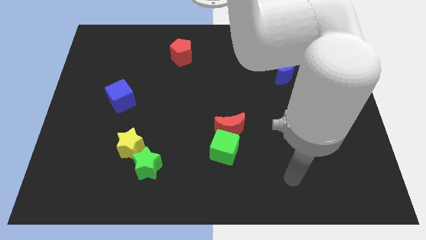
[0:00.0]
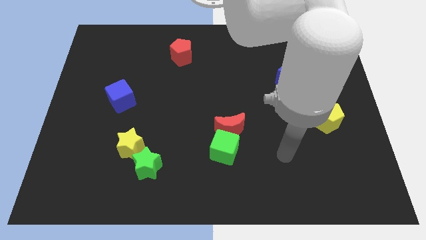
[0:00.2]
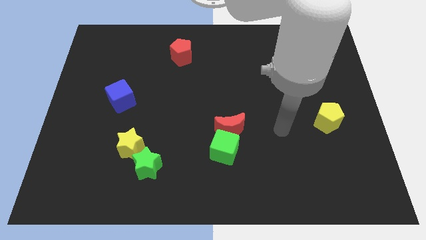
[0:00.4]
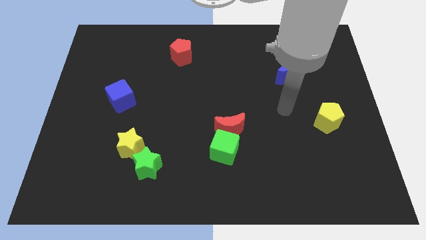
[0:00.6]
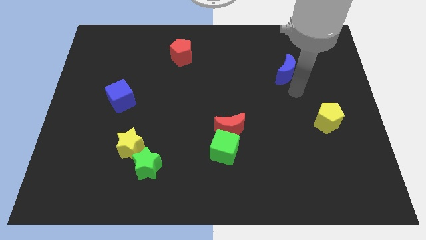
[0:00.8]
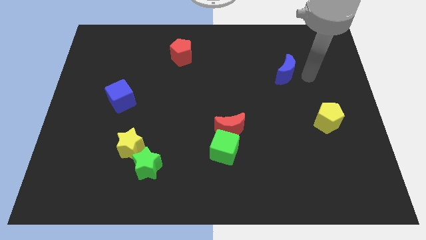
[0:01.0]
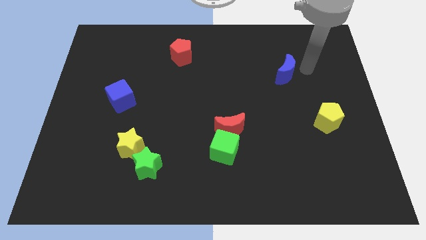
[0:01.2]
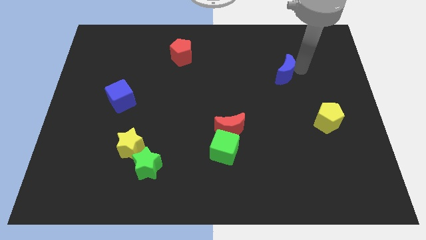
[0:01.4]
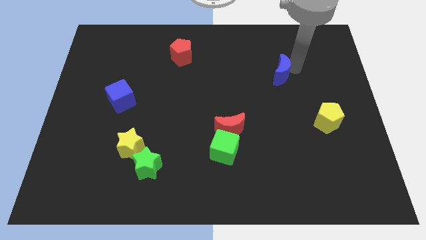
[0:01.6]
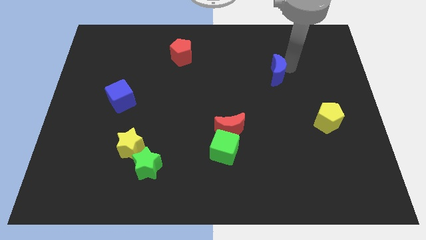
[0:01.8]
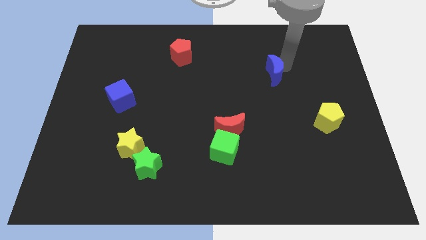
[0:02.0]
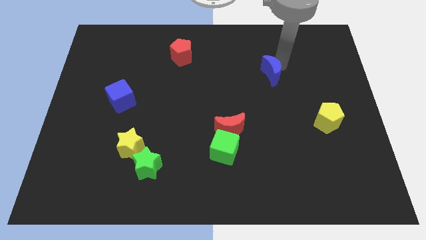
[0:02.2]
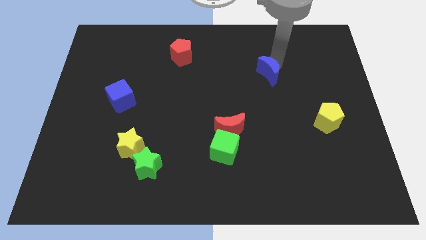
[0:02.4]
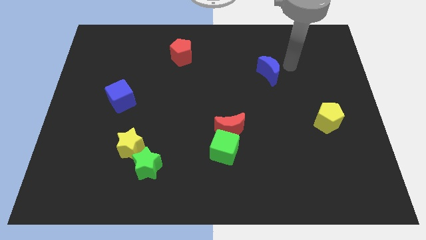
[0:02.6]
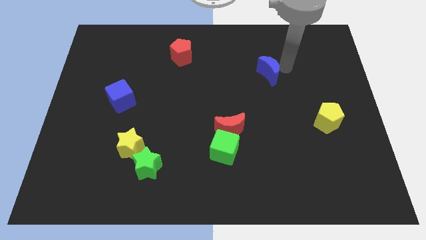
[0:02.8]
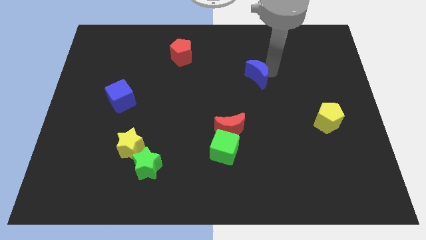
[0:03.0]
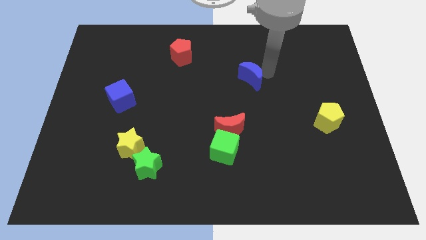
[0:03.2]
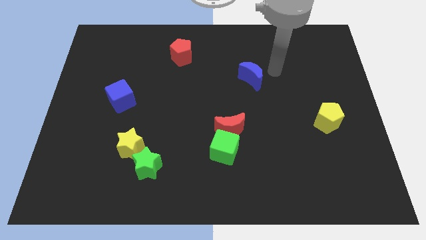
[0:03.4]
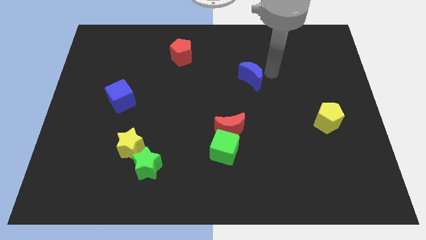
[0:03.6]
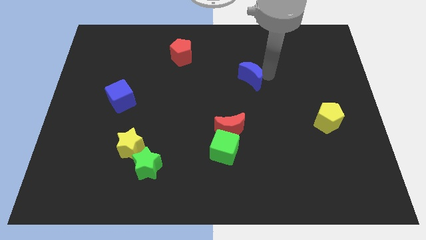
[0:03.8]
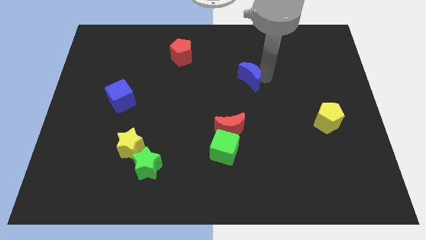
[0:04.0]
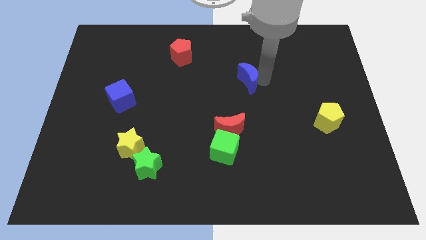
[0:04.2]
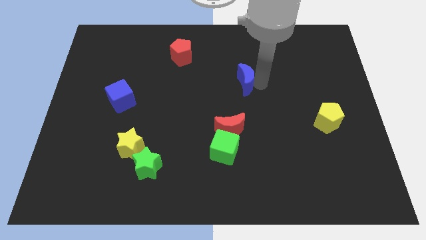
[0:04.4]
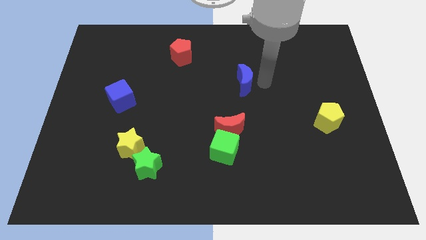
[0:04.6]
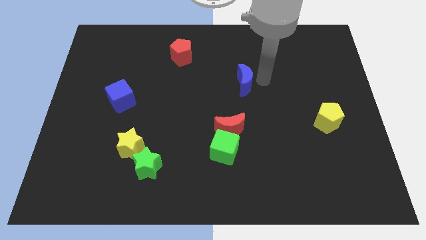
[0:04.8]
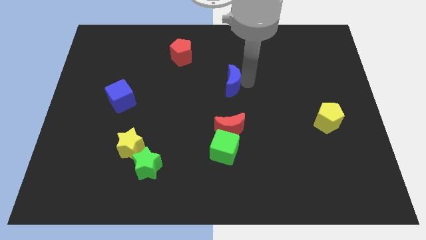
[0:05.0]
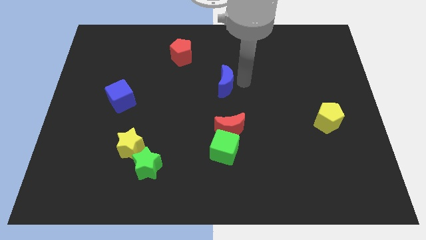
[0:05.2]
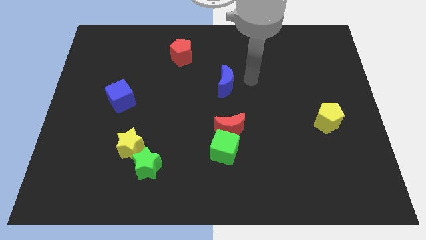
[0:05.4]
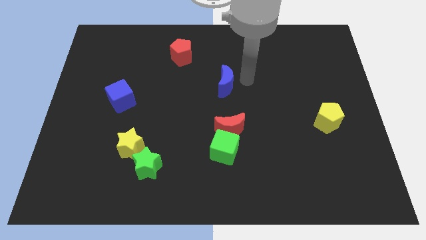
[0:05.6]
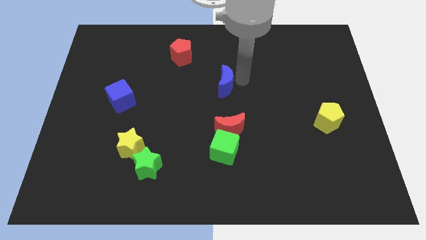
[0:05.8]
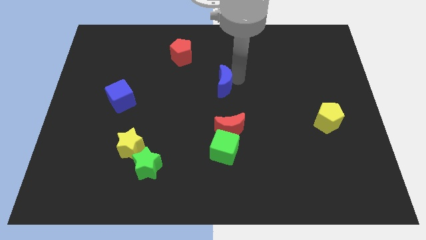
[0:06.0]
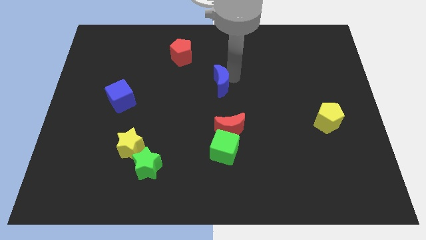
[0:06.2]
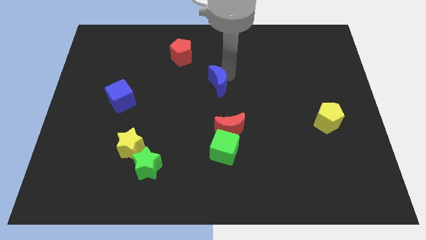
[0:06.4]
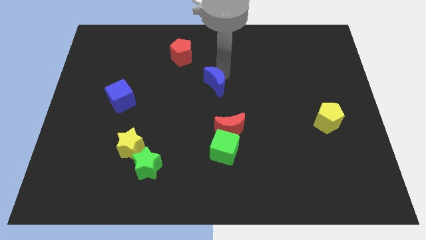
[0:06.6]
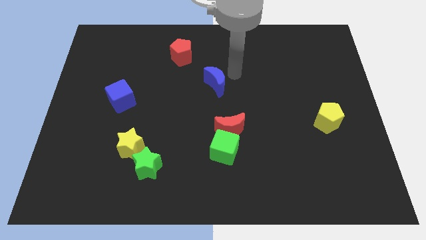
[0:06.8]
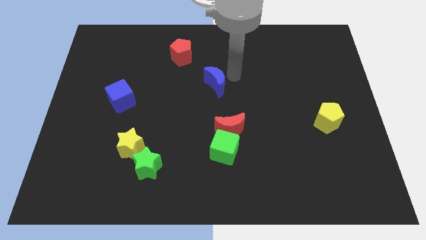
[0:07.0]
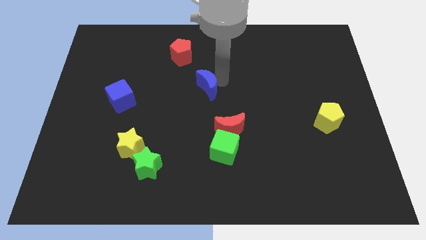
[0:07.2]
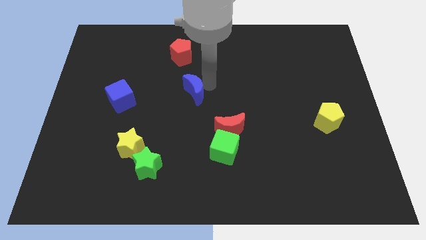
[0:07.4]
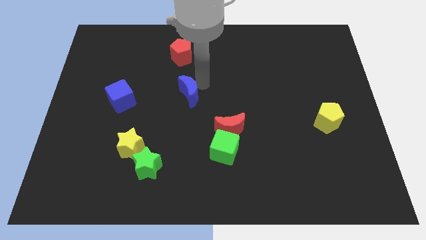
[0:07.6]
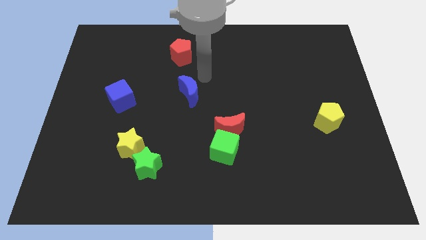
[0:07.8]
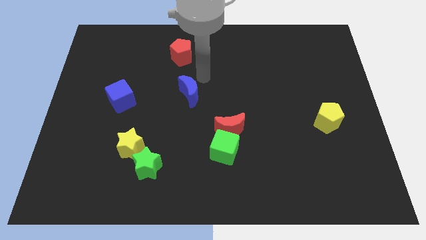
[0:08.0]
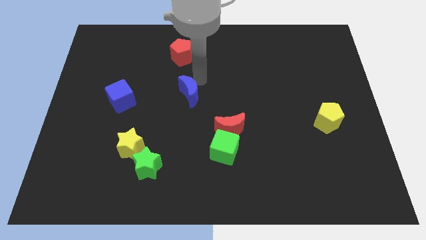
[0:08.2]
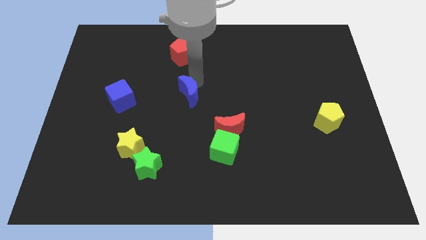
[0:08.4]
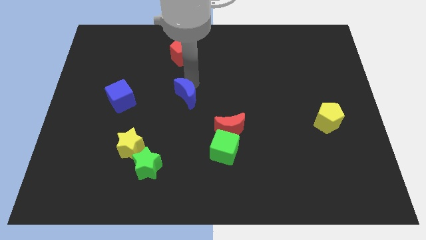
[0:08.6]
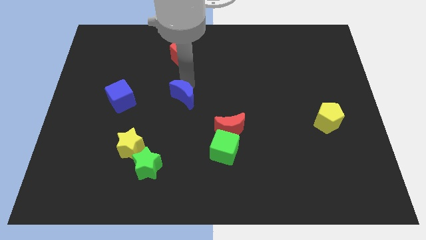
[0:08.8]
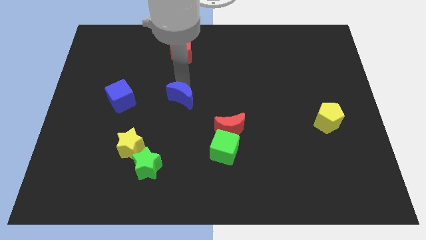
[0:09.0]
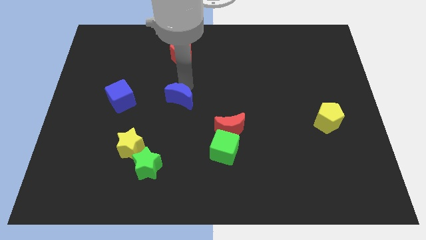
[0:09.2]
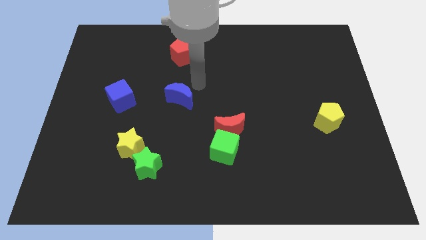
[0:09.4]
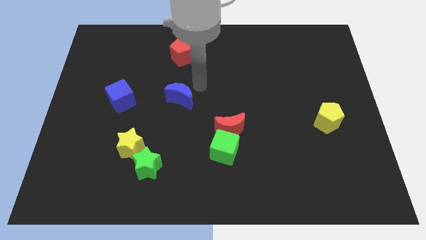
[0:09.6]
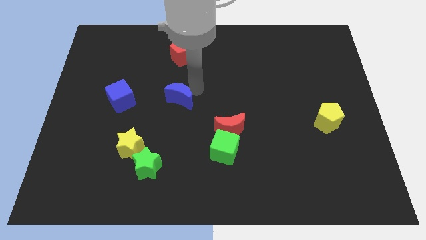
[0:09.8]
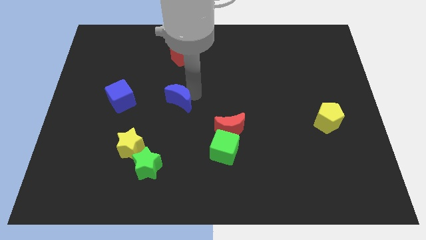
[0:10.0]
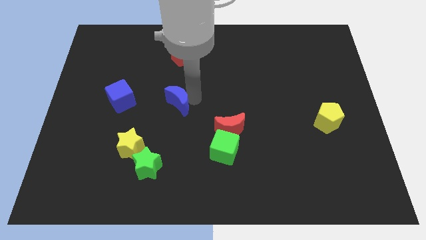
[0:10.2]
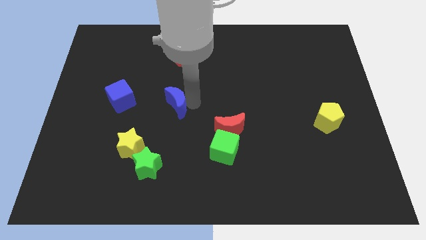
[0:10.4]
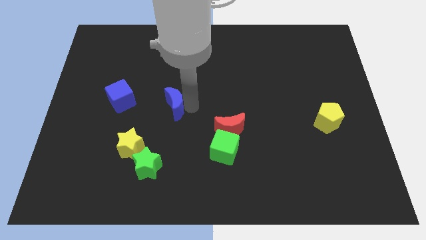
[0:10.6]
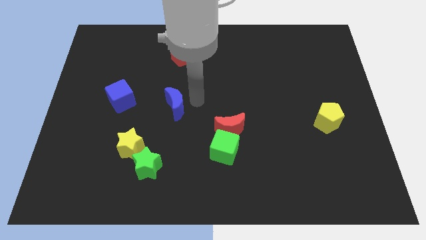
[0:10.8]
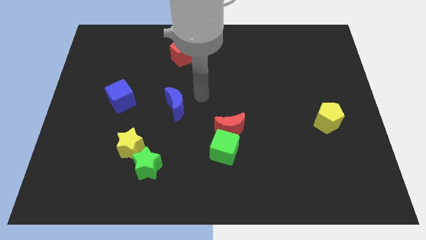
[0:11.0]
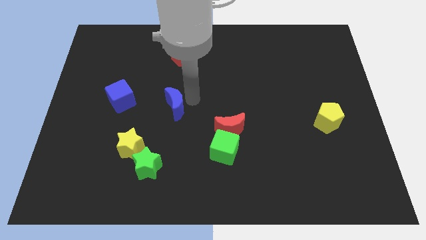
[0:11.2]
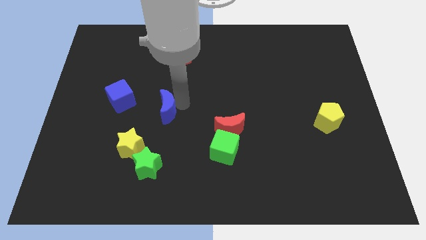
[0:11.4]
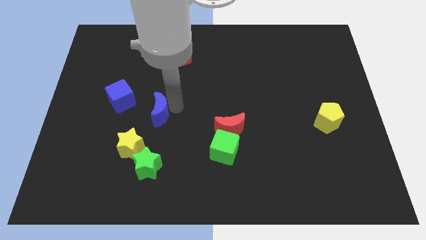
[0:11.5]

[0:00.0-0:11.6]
move the blue moon to the bottom right of the blue cube

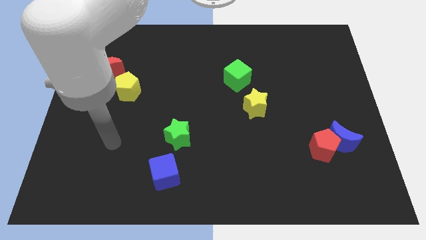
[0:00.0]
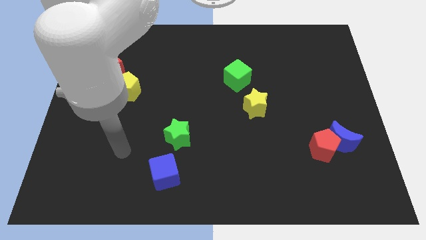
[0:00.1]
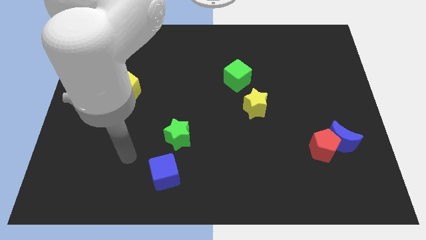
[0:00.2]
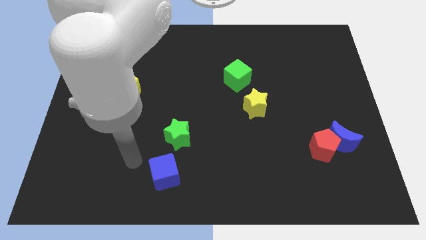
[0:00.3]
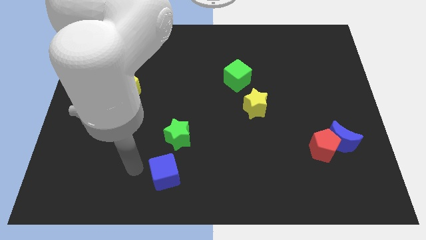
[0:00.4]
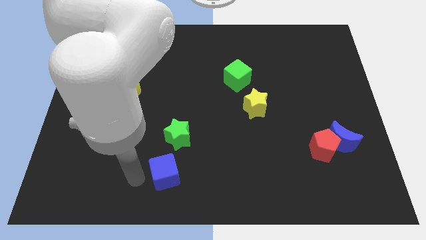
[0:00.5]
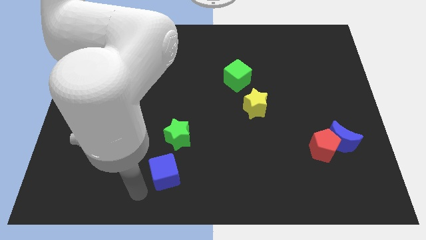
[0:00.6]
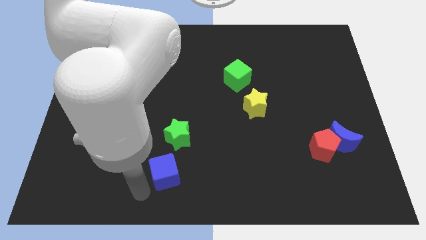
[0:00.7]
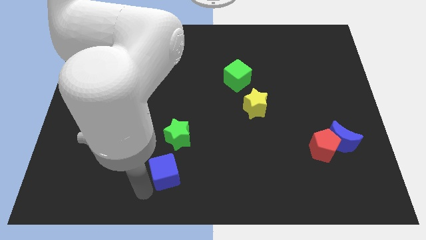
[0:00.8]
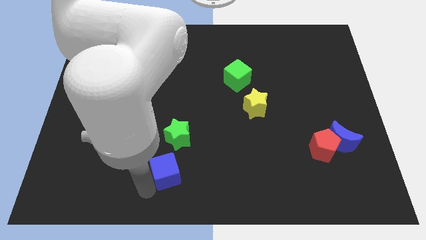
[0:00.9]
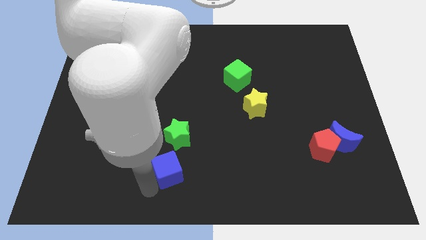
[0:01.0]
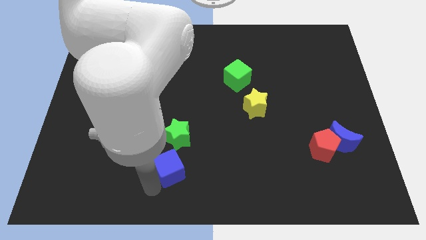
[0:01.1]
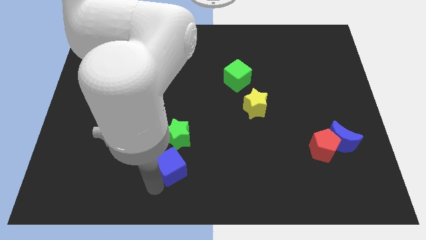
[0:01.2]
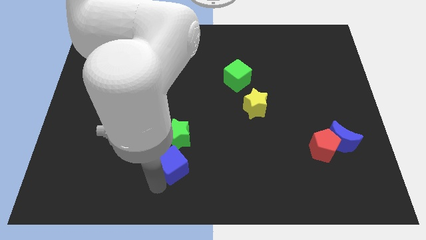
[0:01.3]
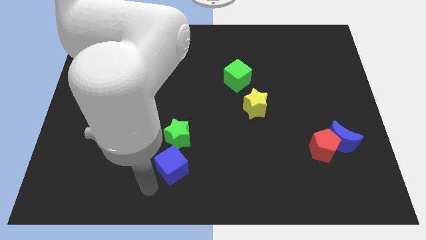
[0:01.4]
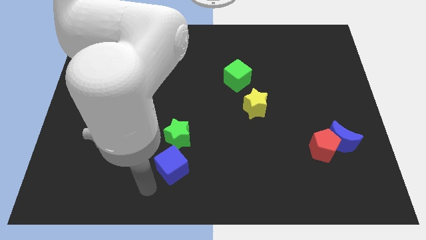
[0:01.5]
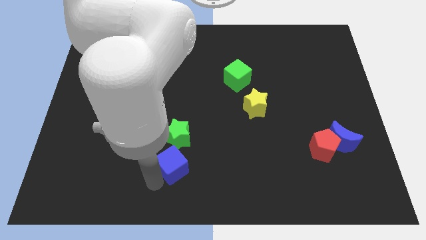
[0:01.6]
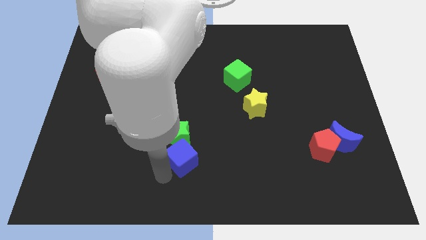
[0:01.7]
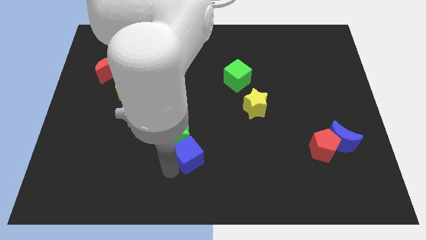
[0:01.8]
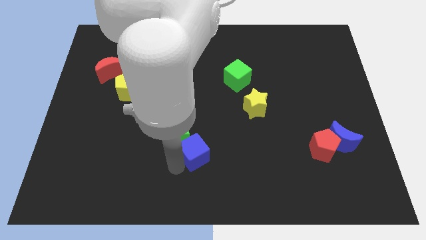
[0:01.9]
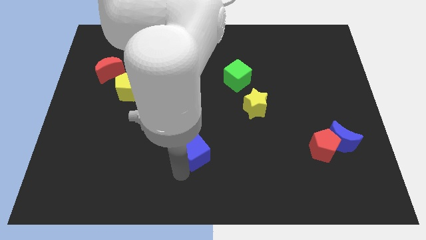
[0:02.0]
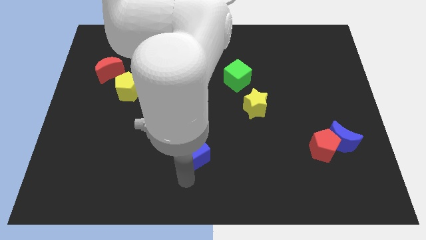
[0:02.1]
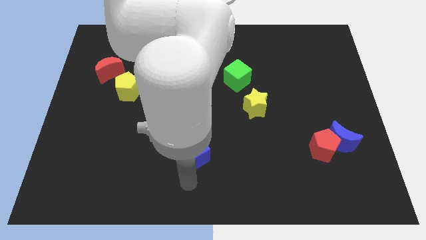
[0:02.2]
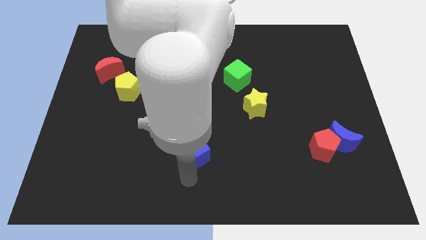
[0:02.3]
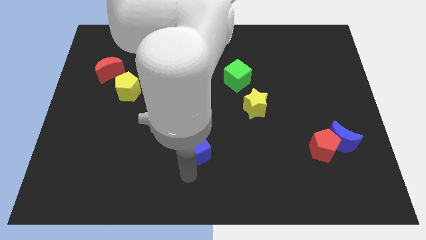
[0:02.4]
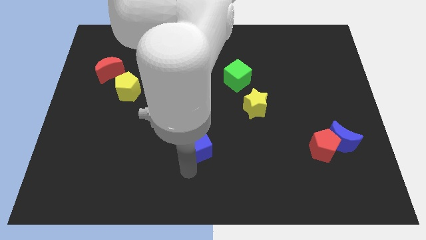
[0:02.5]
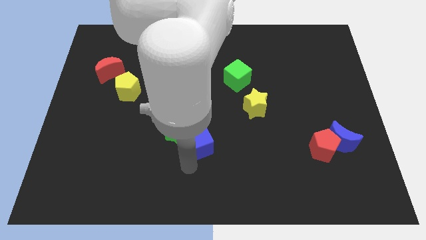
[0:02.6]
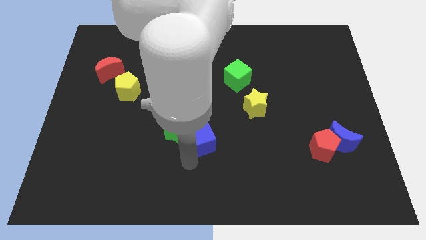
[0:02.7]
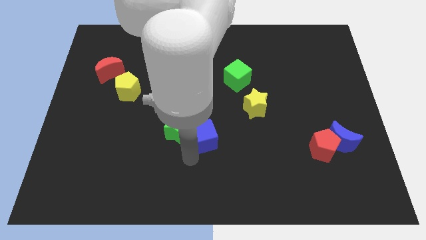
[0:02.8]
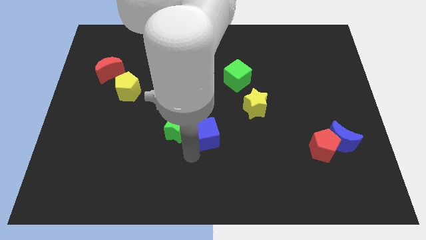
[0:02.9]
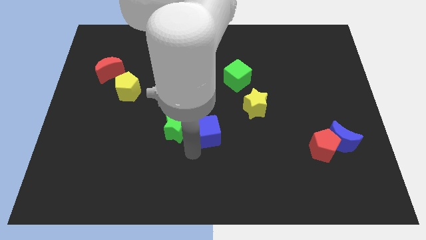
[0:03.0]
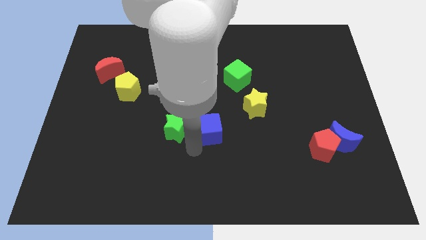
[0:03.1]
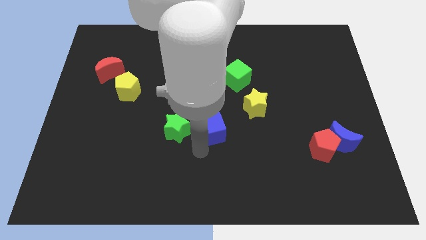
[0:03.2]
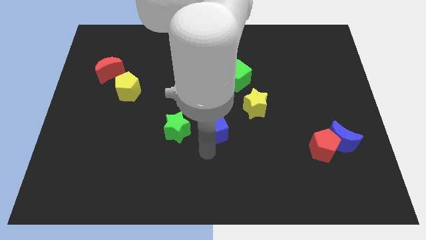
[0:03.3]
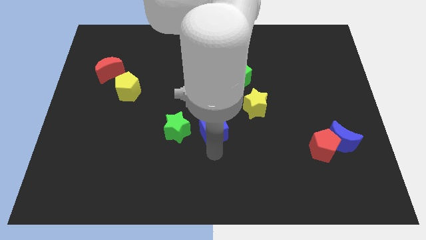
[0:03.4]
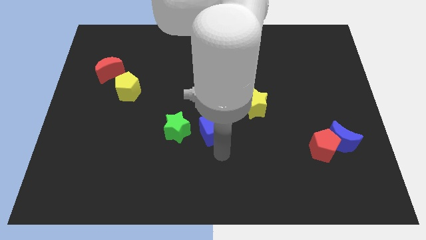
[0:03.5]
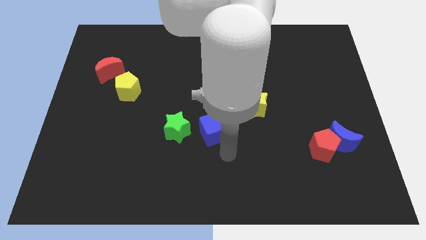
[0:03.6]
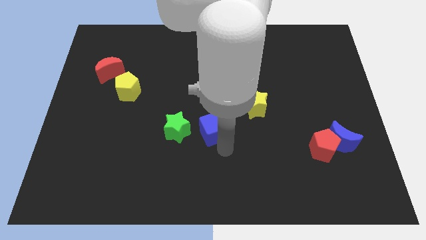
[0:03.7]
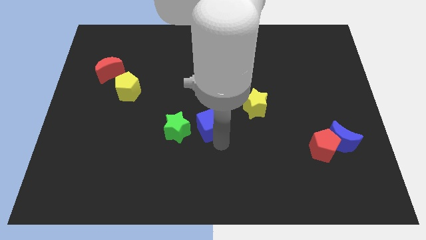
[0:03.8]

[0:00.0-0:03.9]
move the blue cube diagonally up and to the right of the green star
